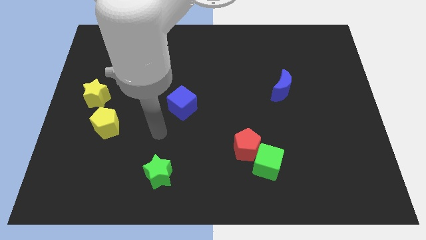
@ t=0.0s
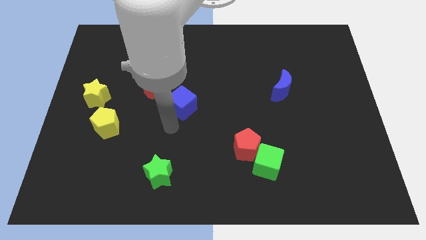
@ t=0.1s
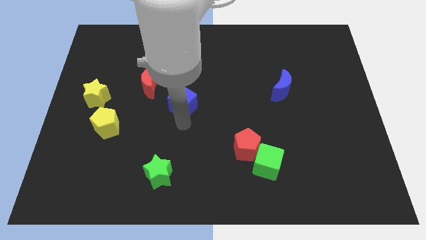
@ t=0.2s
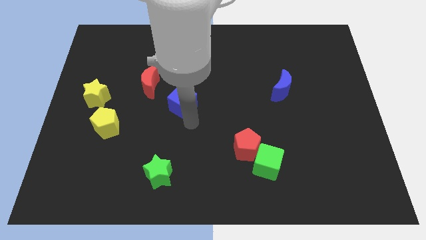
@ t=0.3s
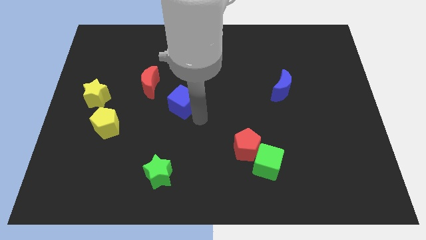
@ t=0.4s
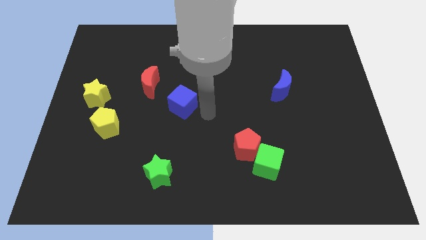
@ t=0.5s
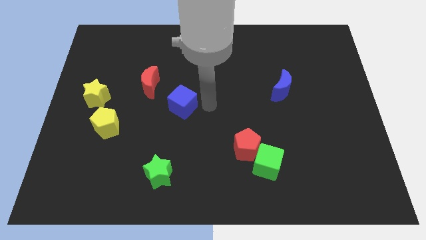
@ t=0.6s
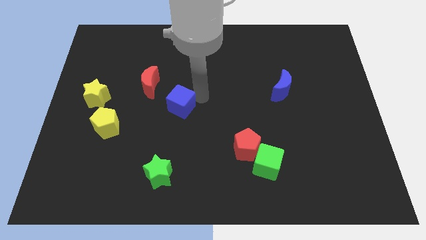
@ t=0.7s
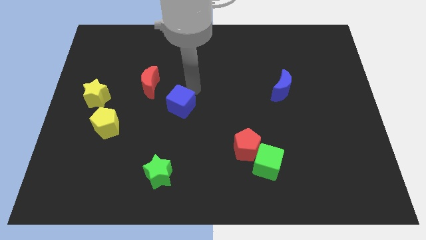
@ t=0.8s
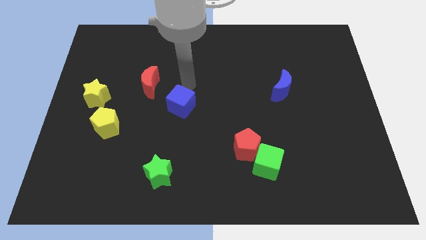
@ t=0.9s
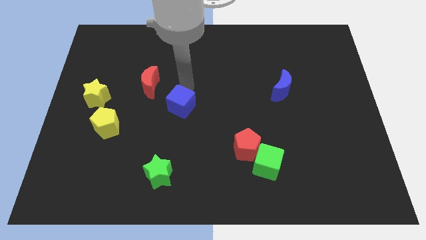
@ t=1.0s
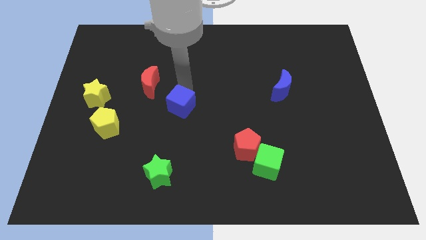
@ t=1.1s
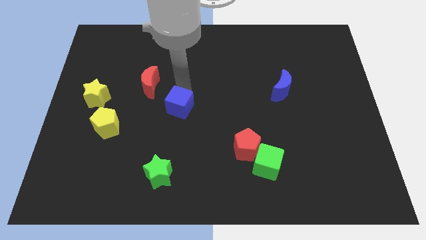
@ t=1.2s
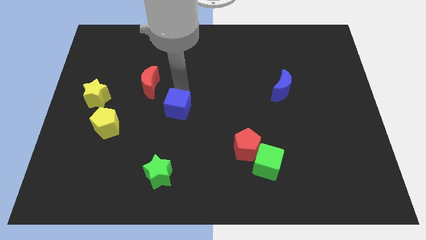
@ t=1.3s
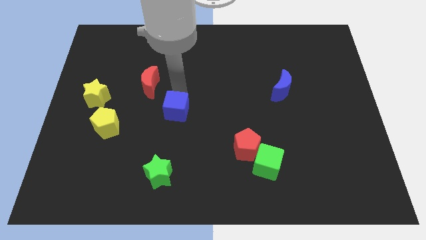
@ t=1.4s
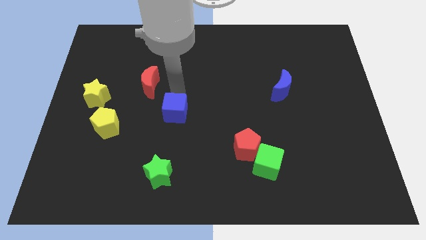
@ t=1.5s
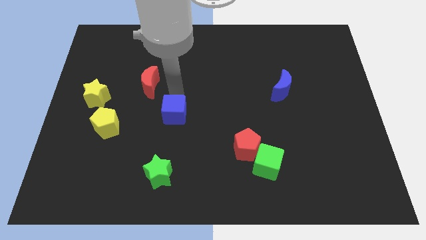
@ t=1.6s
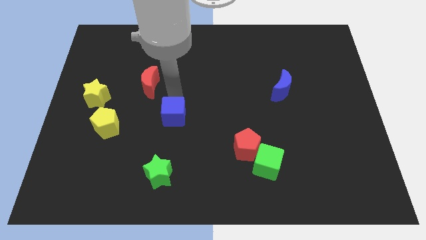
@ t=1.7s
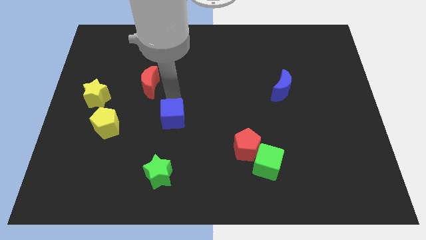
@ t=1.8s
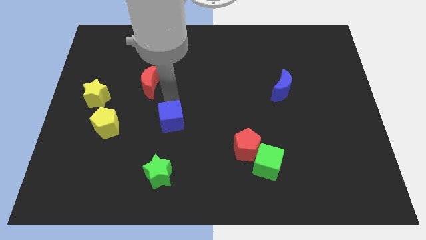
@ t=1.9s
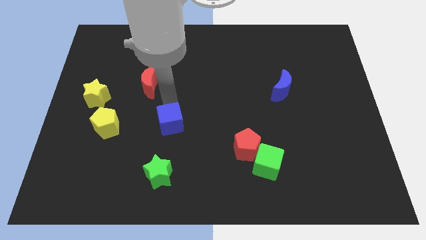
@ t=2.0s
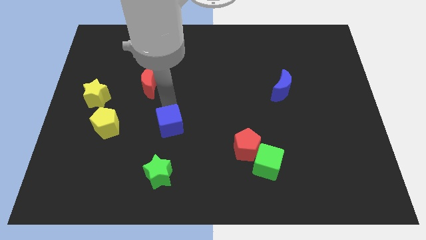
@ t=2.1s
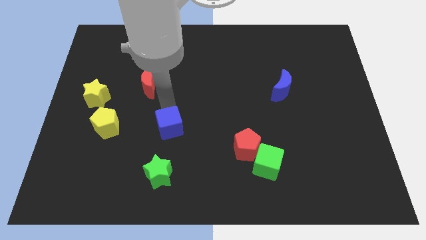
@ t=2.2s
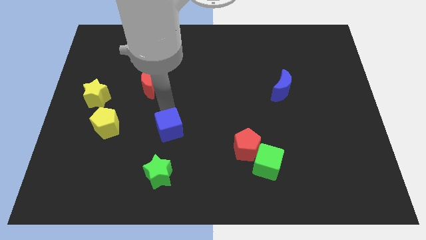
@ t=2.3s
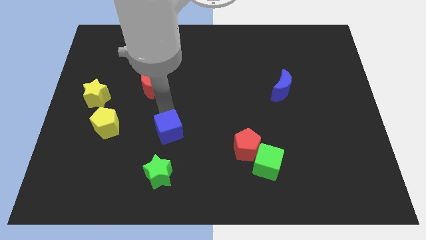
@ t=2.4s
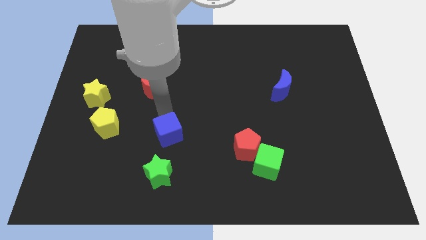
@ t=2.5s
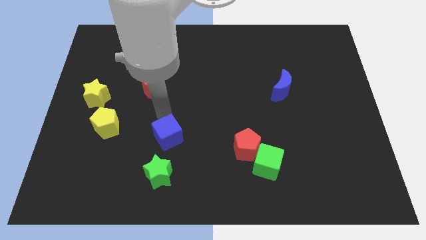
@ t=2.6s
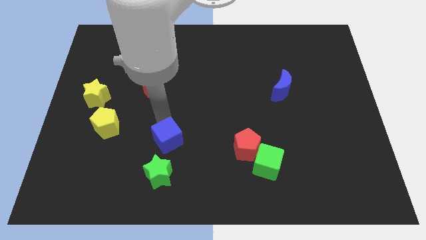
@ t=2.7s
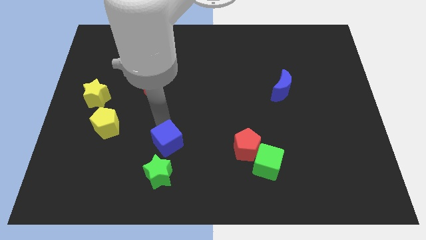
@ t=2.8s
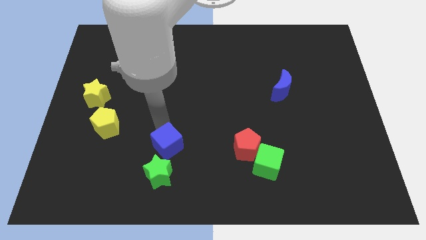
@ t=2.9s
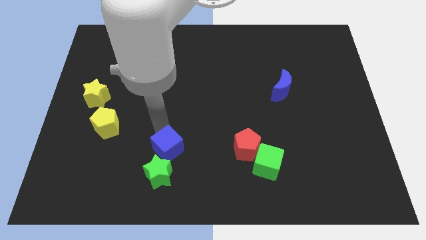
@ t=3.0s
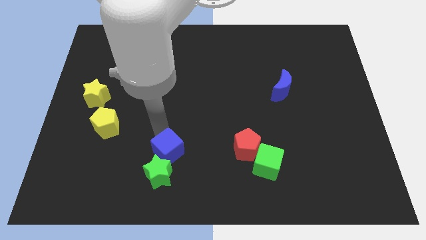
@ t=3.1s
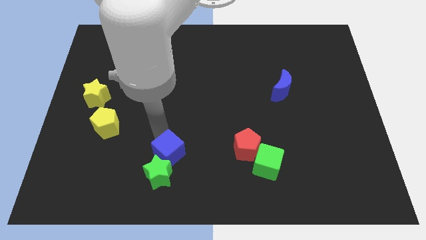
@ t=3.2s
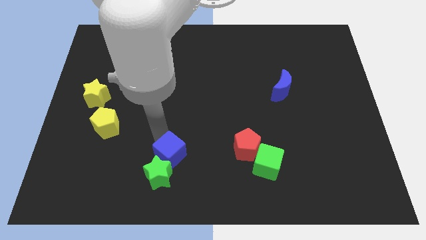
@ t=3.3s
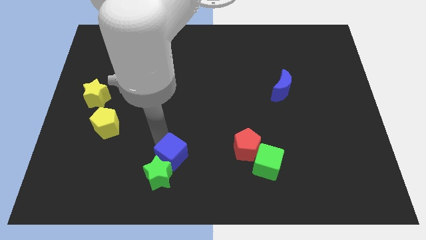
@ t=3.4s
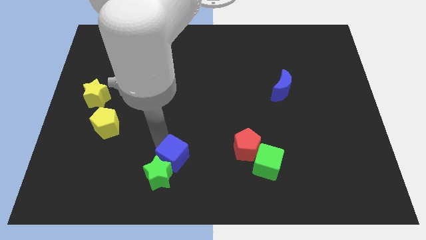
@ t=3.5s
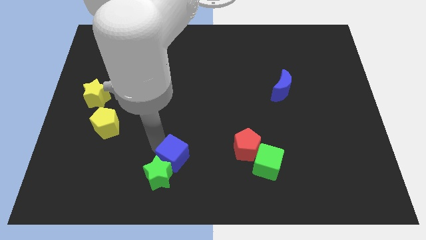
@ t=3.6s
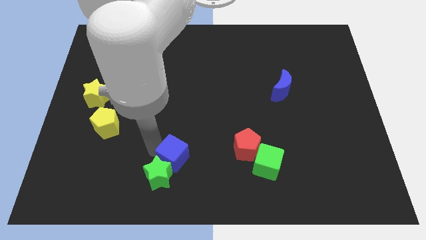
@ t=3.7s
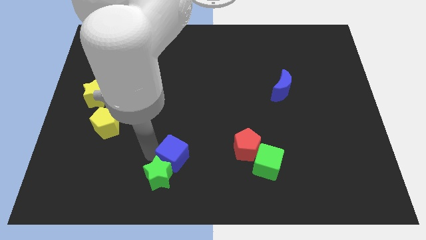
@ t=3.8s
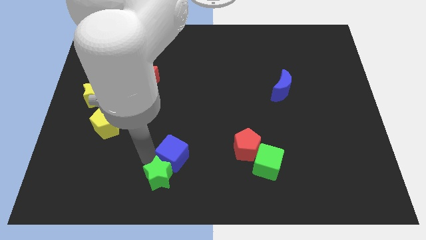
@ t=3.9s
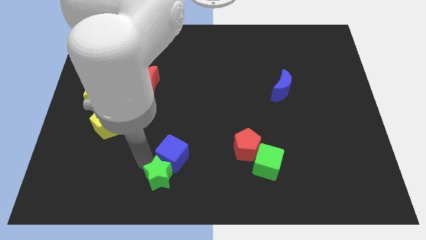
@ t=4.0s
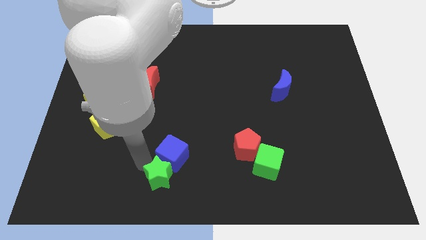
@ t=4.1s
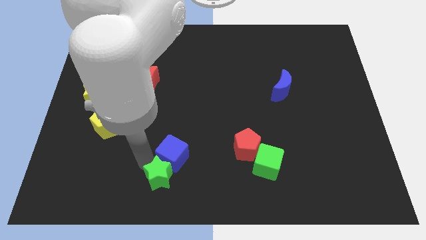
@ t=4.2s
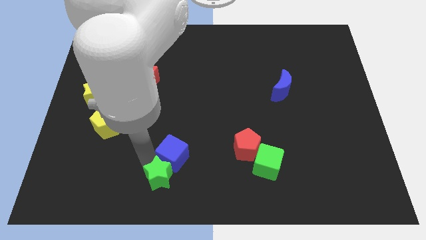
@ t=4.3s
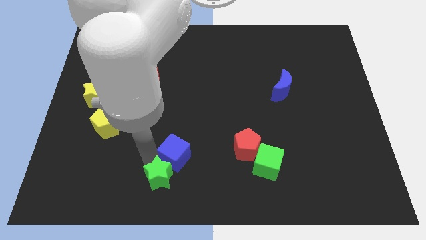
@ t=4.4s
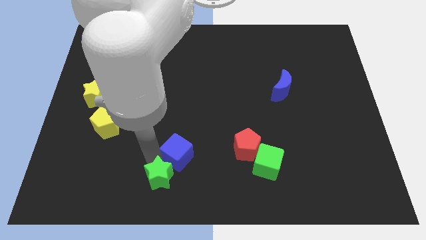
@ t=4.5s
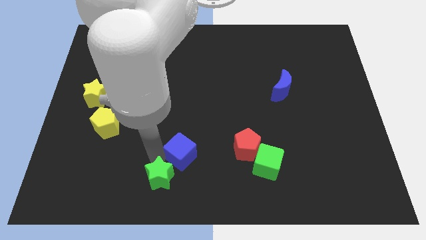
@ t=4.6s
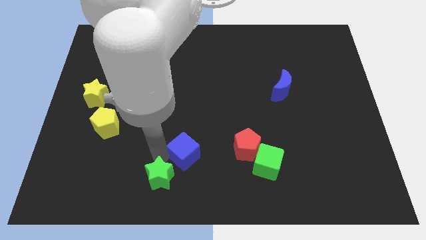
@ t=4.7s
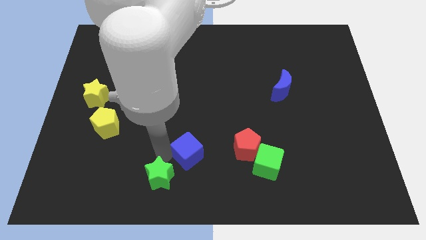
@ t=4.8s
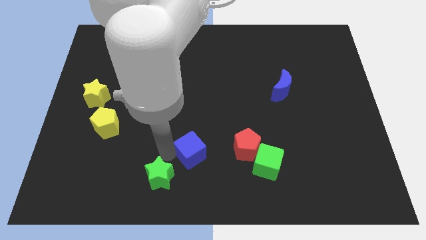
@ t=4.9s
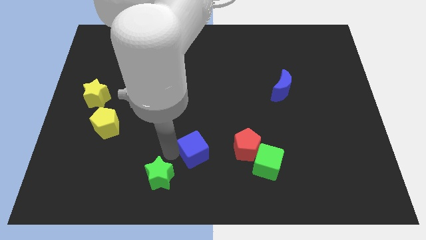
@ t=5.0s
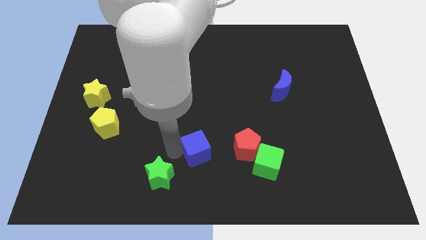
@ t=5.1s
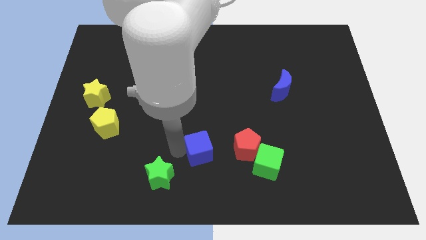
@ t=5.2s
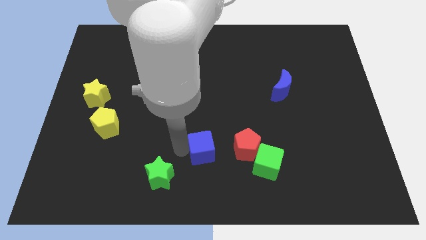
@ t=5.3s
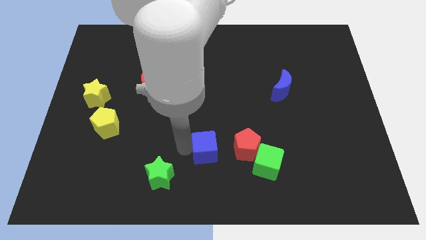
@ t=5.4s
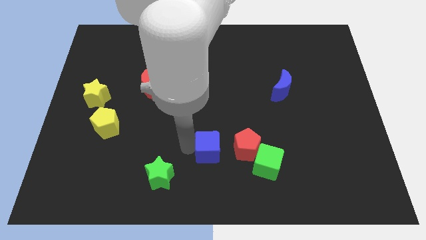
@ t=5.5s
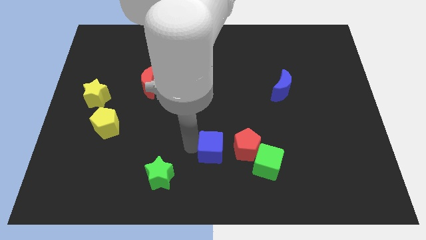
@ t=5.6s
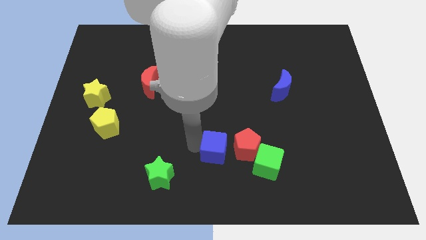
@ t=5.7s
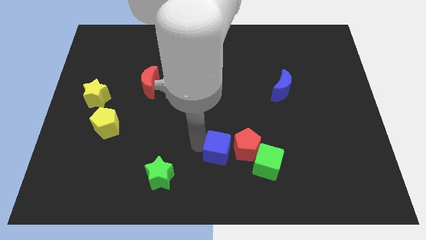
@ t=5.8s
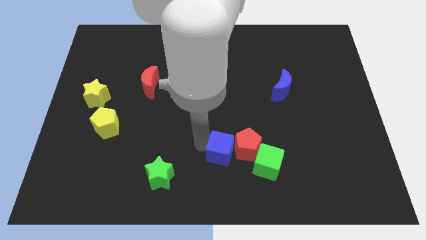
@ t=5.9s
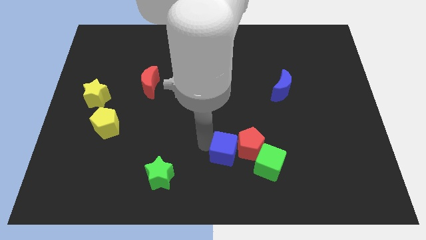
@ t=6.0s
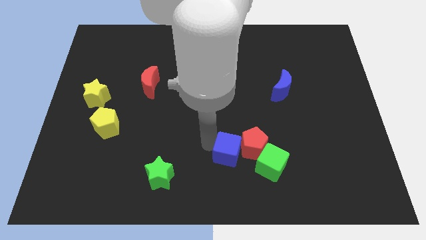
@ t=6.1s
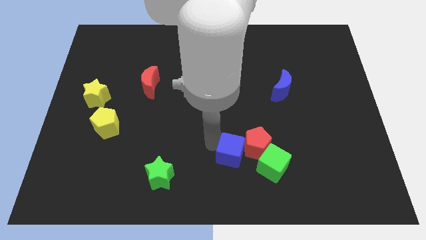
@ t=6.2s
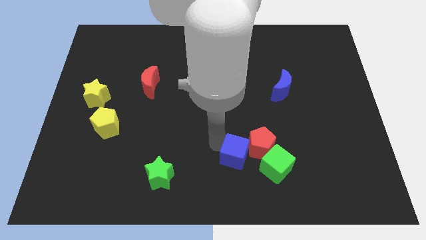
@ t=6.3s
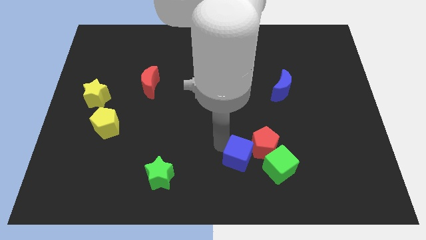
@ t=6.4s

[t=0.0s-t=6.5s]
move the blue cube to the bottom
